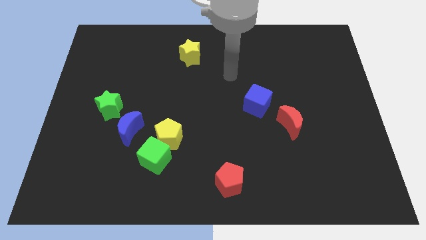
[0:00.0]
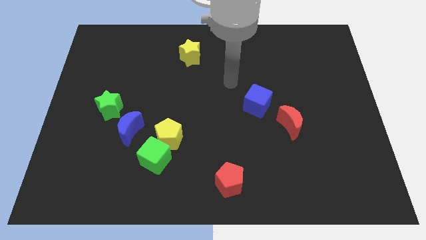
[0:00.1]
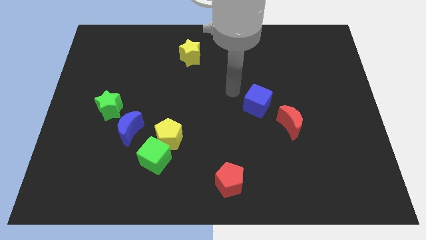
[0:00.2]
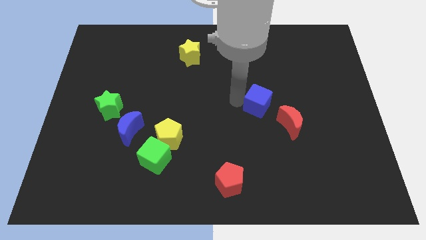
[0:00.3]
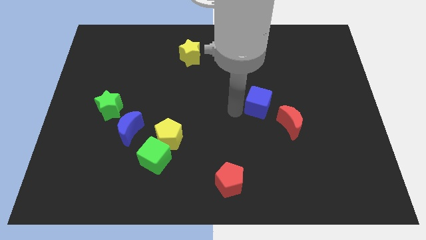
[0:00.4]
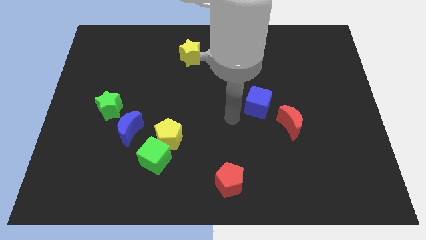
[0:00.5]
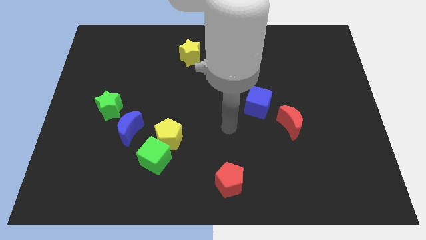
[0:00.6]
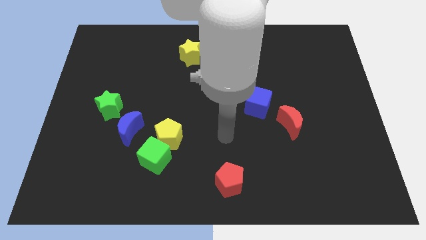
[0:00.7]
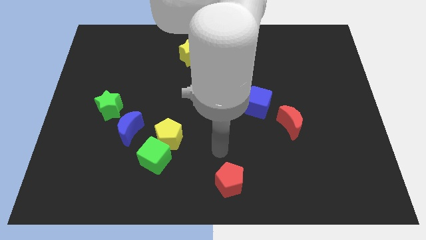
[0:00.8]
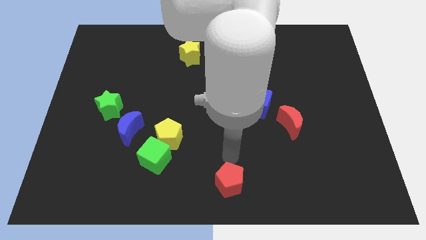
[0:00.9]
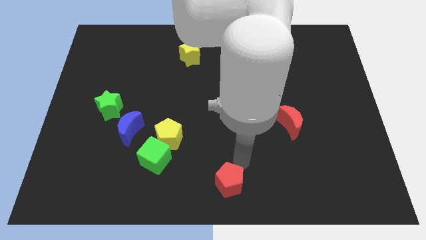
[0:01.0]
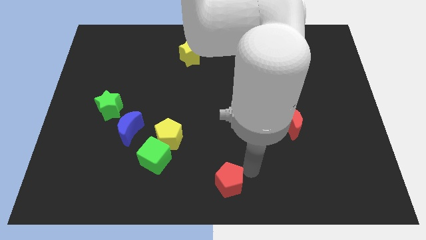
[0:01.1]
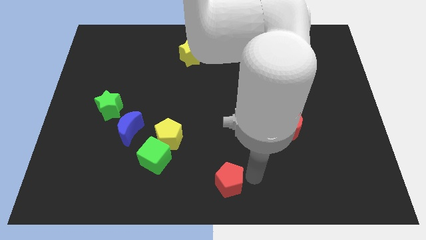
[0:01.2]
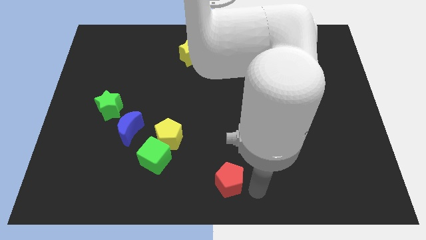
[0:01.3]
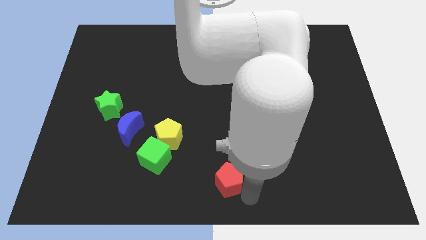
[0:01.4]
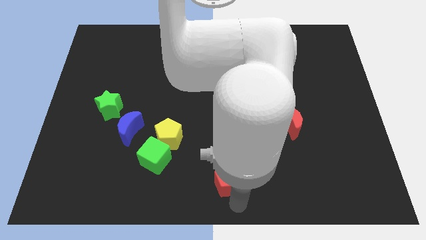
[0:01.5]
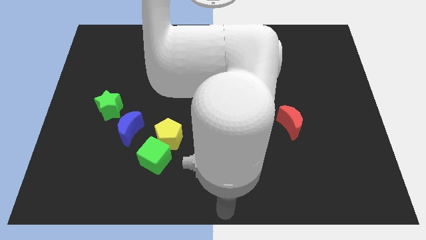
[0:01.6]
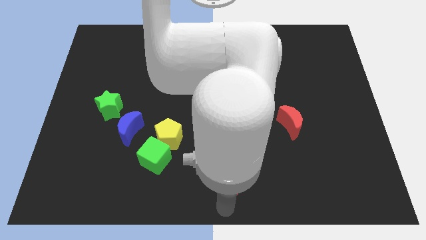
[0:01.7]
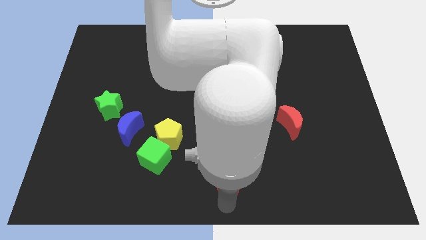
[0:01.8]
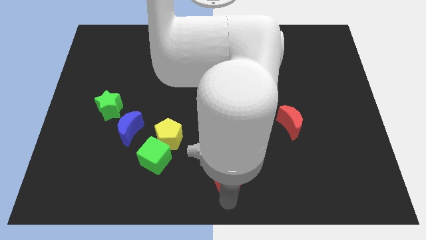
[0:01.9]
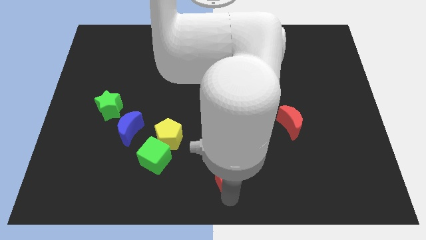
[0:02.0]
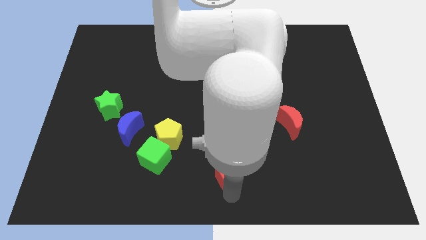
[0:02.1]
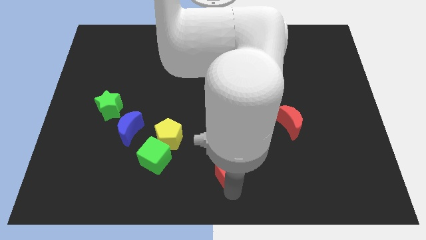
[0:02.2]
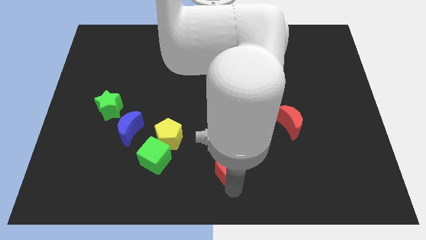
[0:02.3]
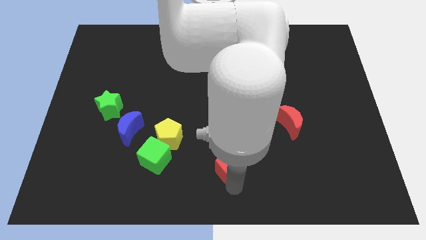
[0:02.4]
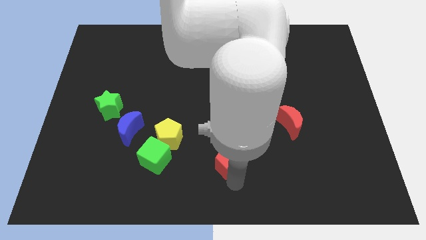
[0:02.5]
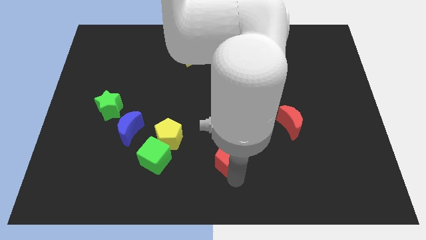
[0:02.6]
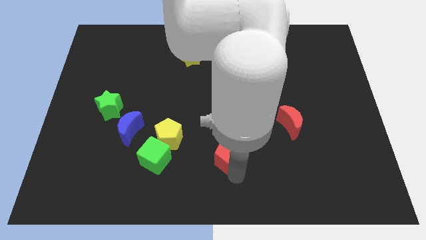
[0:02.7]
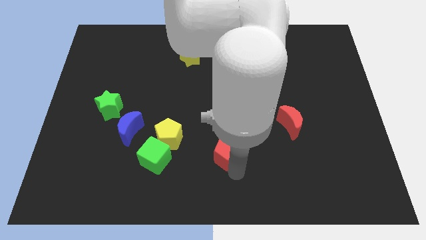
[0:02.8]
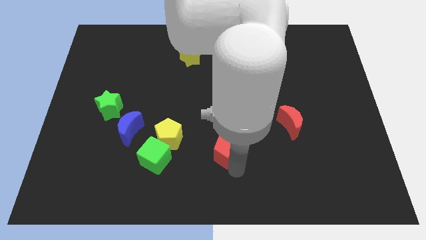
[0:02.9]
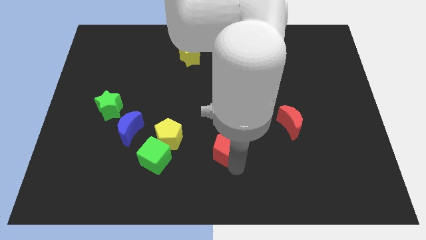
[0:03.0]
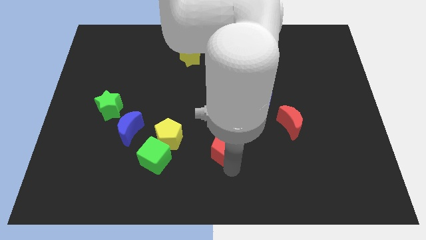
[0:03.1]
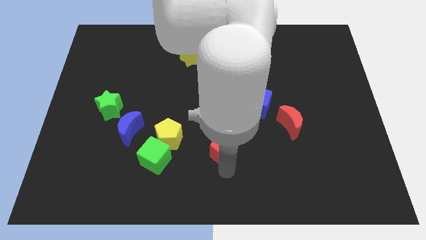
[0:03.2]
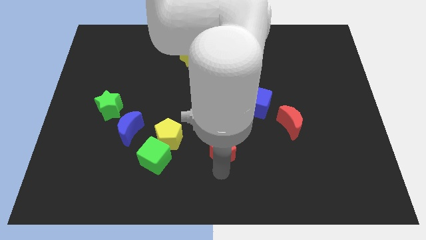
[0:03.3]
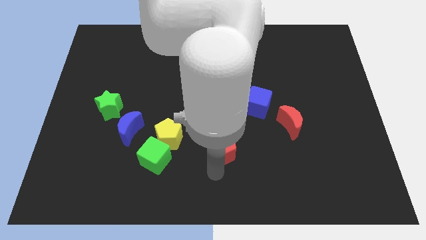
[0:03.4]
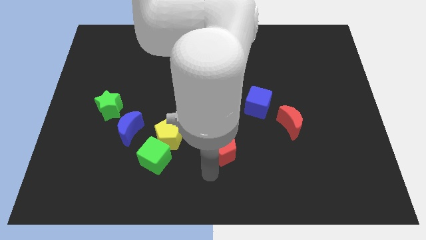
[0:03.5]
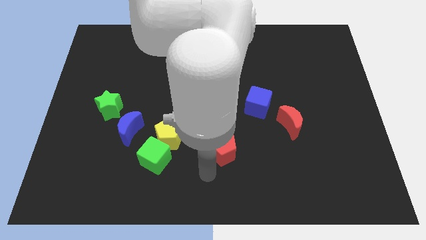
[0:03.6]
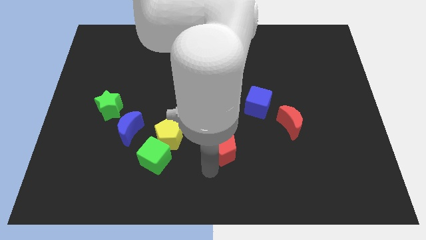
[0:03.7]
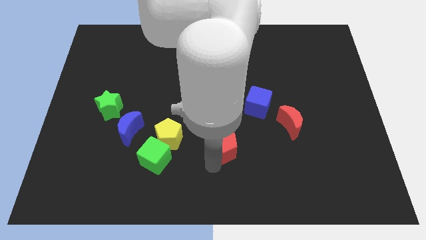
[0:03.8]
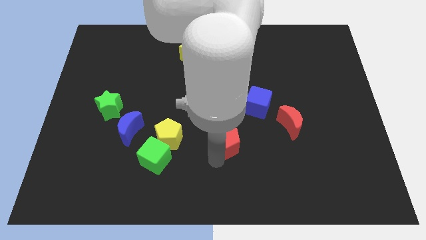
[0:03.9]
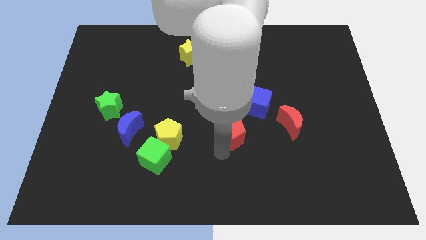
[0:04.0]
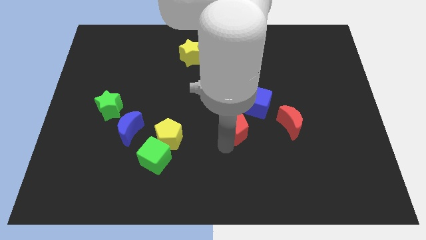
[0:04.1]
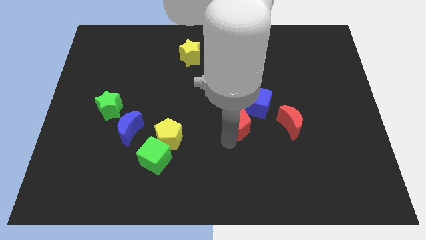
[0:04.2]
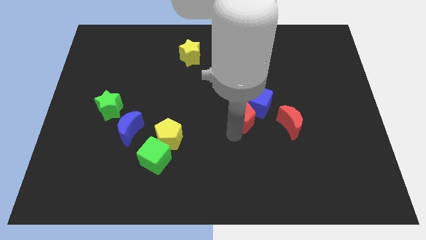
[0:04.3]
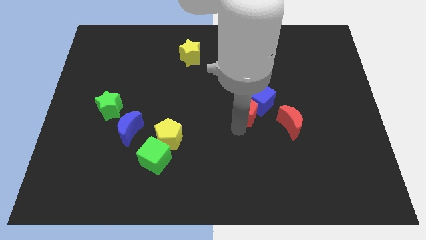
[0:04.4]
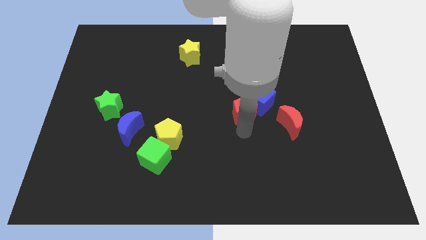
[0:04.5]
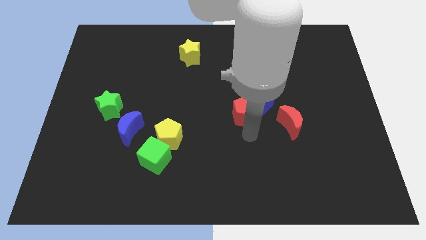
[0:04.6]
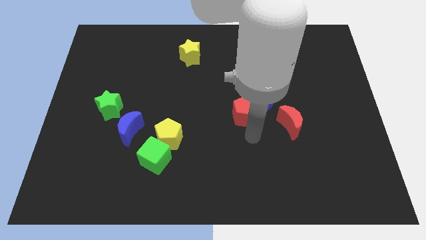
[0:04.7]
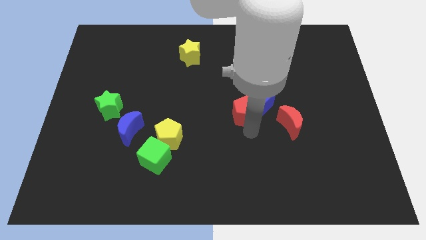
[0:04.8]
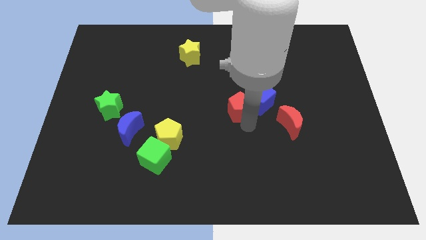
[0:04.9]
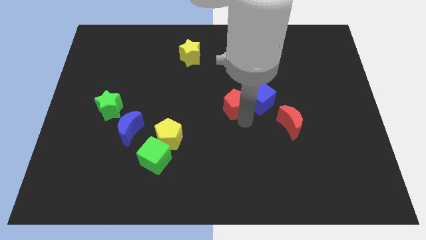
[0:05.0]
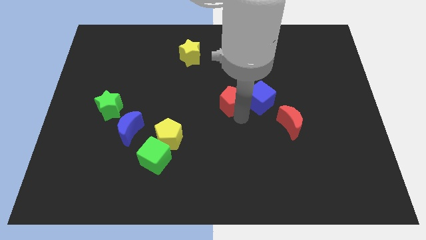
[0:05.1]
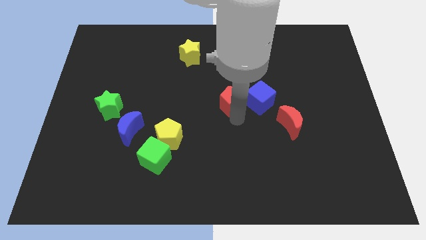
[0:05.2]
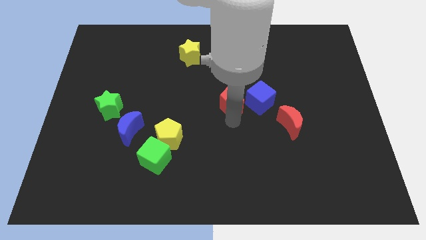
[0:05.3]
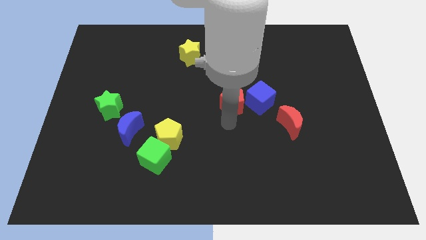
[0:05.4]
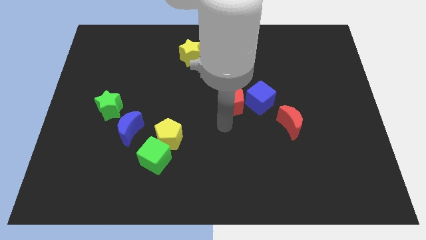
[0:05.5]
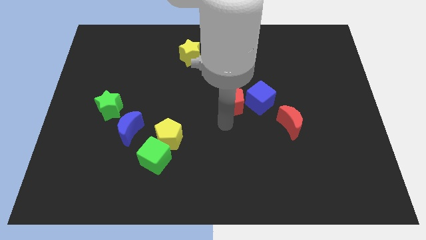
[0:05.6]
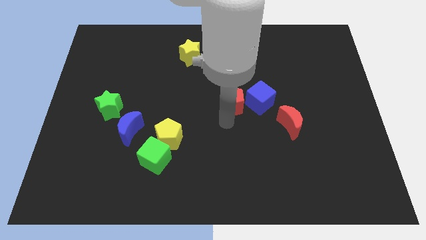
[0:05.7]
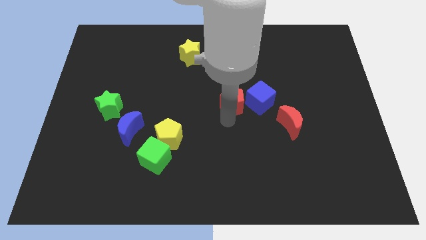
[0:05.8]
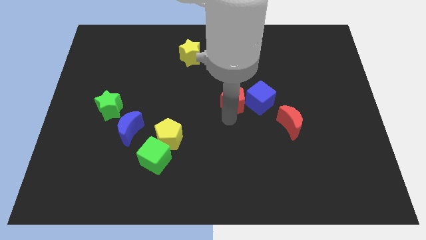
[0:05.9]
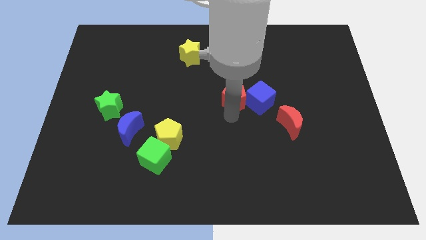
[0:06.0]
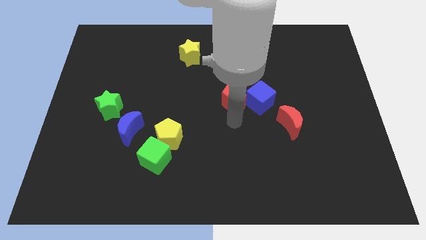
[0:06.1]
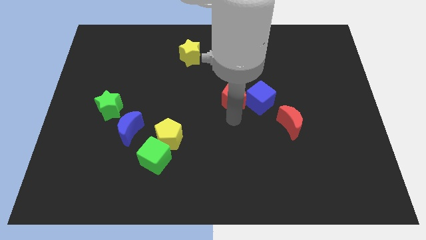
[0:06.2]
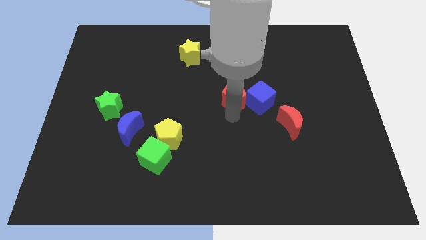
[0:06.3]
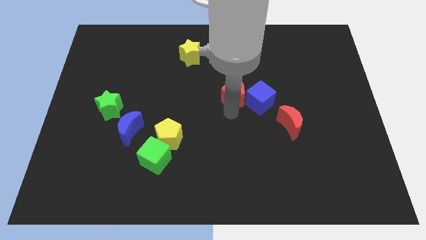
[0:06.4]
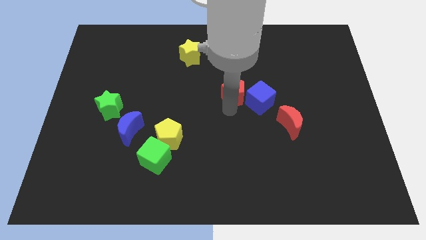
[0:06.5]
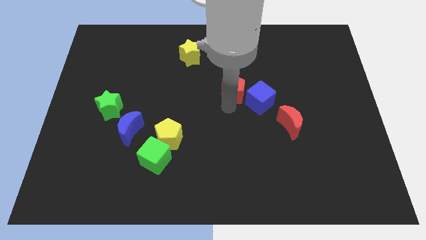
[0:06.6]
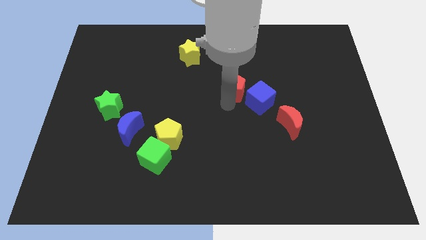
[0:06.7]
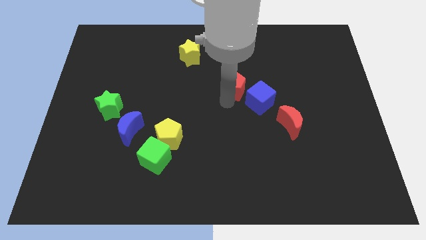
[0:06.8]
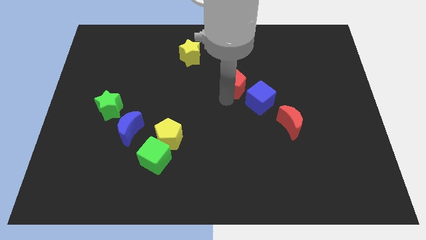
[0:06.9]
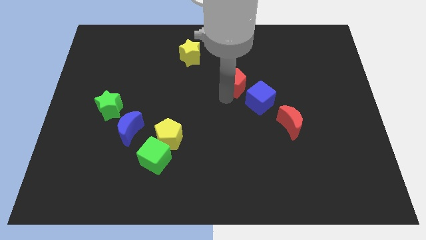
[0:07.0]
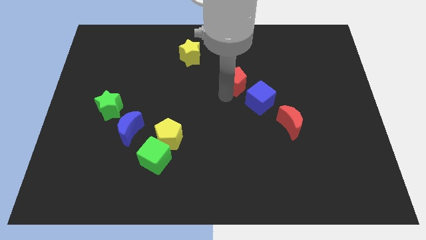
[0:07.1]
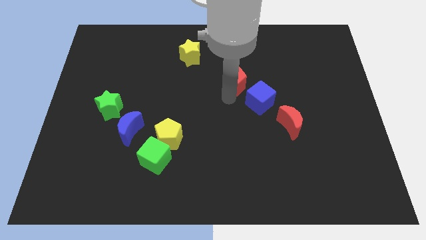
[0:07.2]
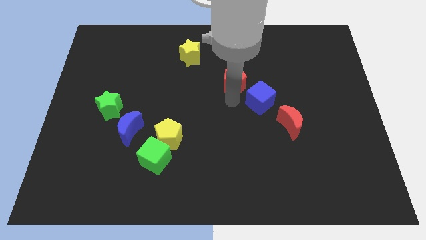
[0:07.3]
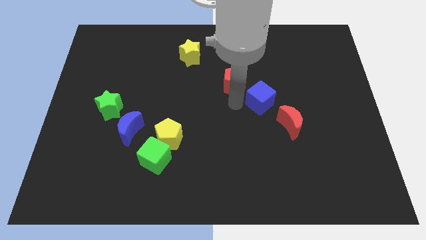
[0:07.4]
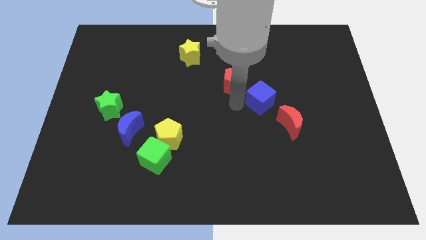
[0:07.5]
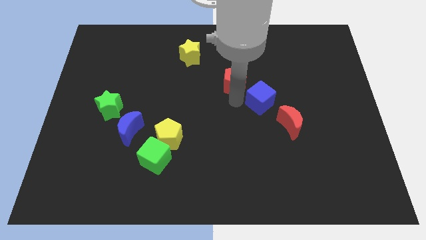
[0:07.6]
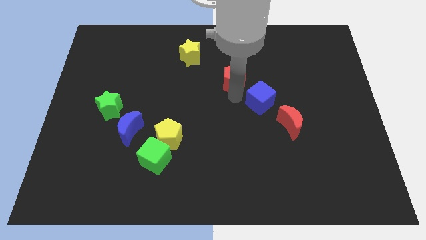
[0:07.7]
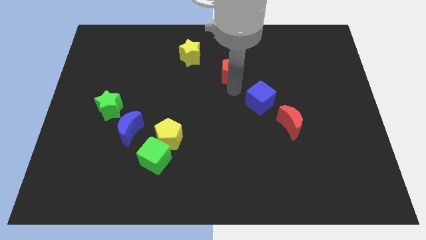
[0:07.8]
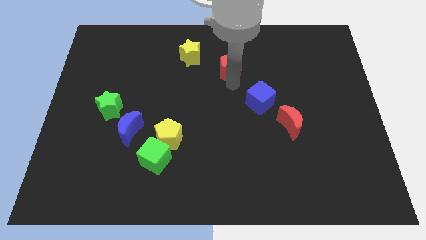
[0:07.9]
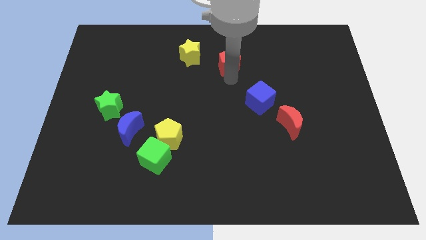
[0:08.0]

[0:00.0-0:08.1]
slide the red pentagon to the right of the yellow star
